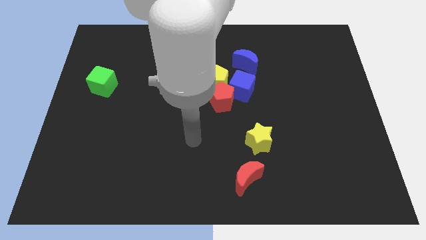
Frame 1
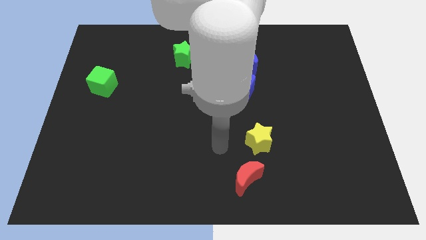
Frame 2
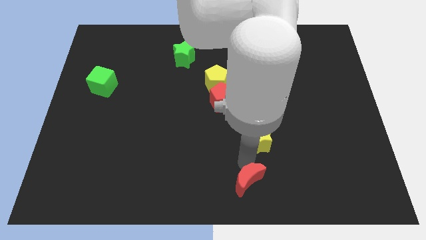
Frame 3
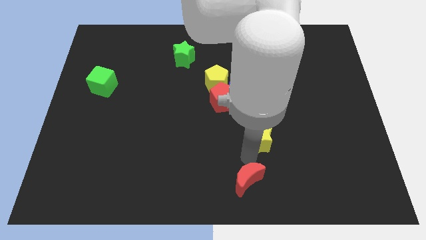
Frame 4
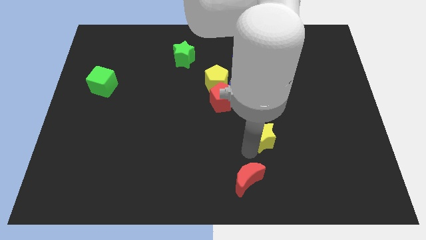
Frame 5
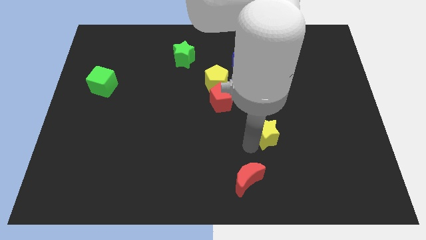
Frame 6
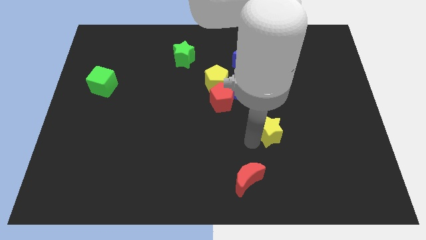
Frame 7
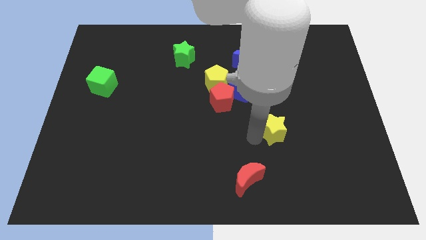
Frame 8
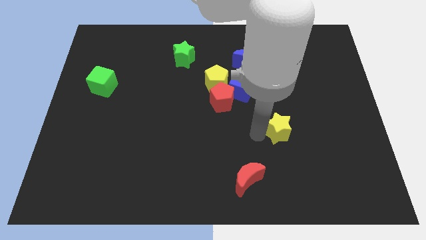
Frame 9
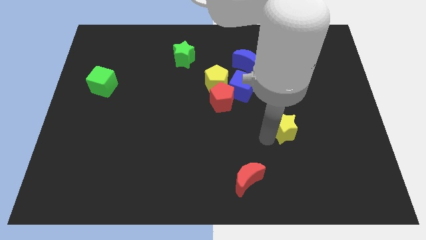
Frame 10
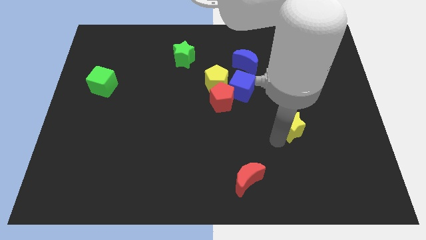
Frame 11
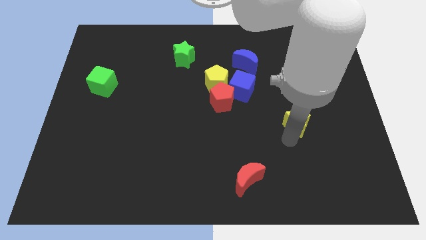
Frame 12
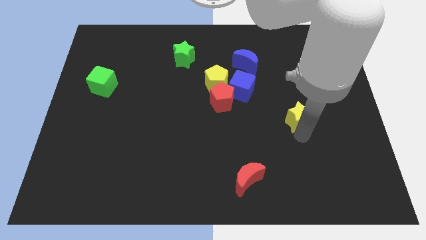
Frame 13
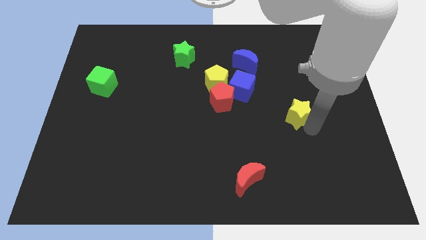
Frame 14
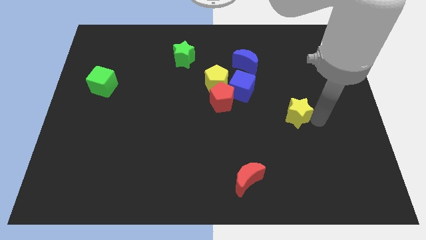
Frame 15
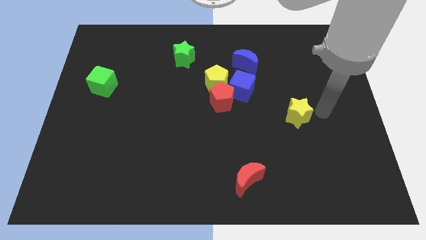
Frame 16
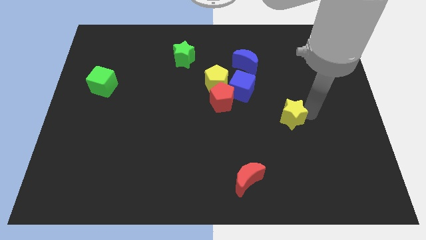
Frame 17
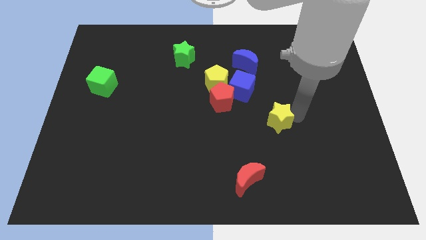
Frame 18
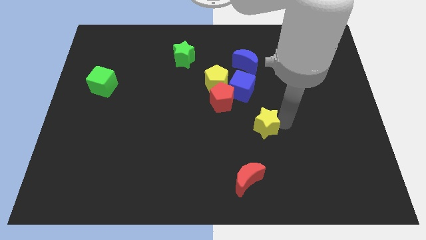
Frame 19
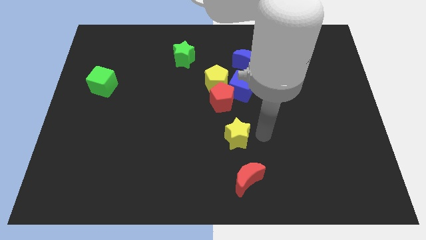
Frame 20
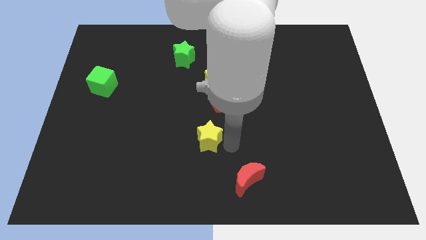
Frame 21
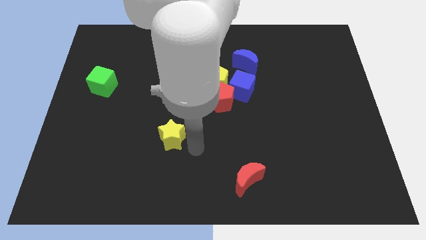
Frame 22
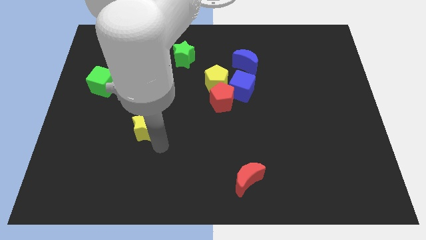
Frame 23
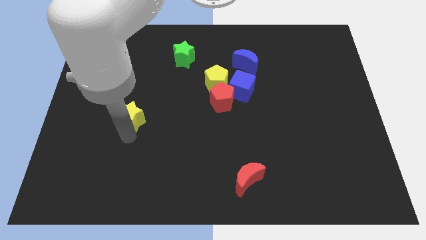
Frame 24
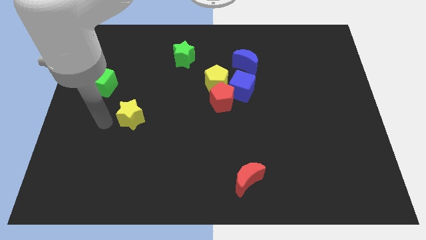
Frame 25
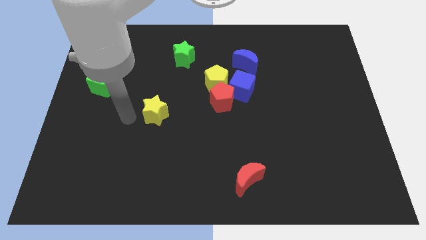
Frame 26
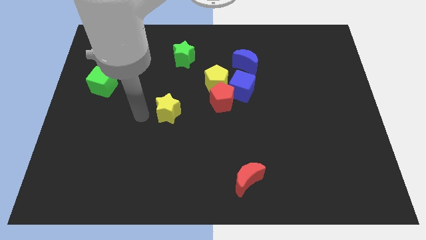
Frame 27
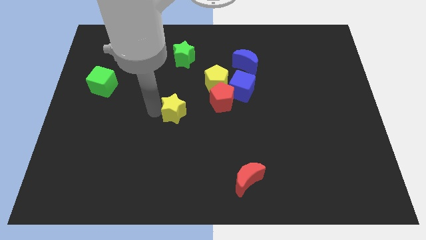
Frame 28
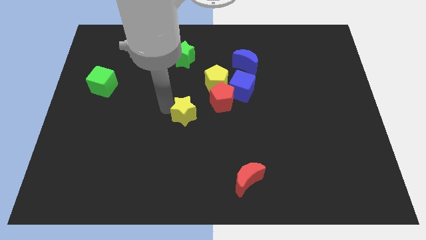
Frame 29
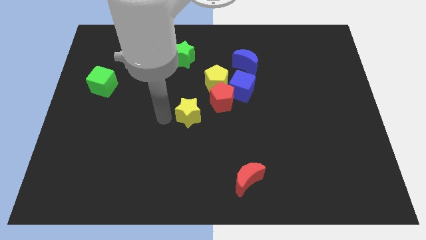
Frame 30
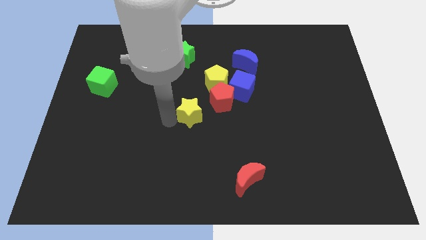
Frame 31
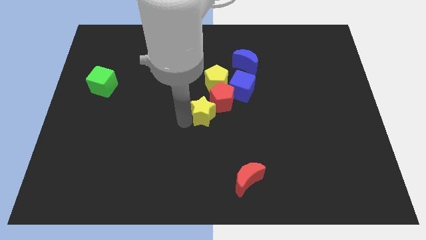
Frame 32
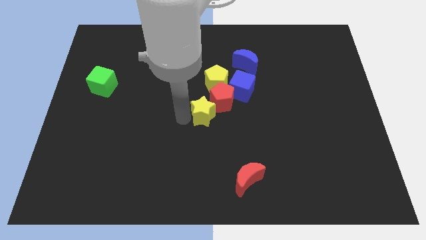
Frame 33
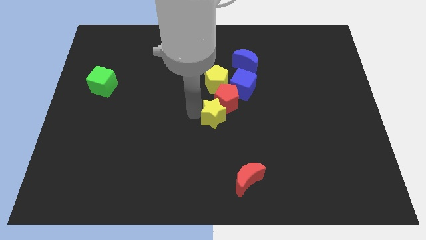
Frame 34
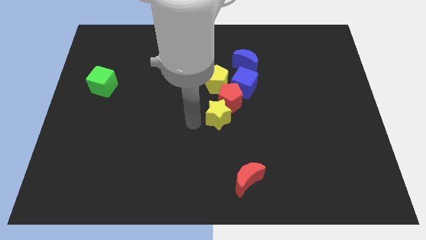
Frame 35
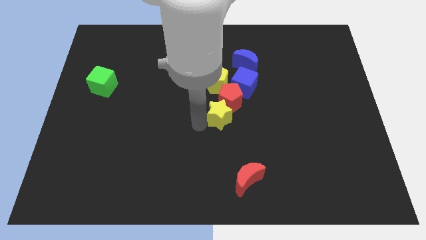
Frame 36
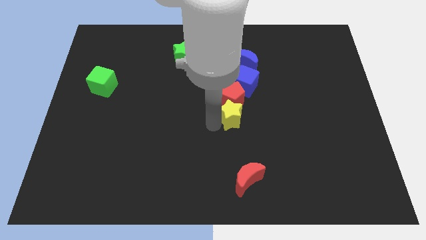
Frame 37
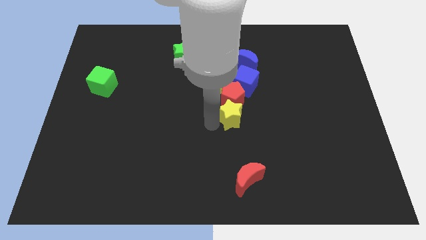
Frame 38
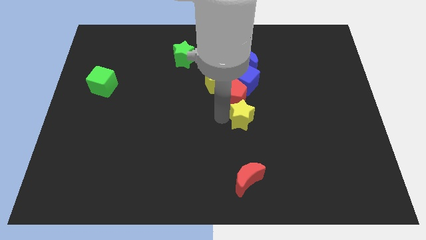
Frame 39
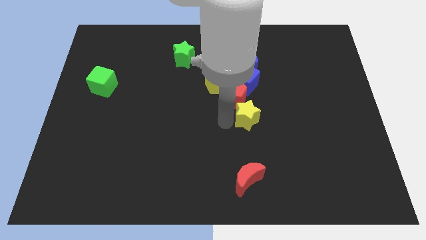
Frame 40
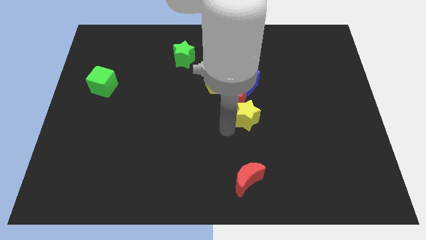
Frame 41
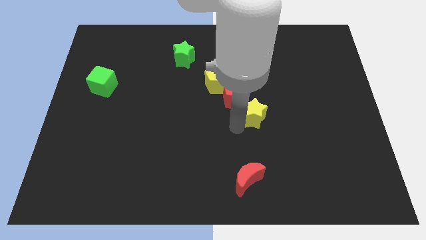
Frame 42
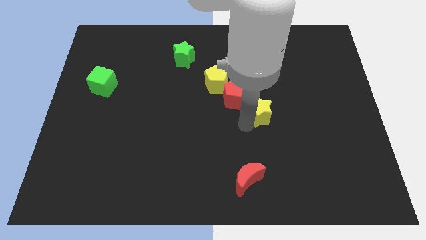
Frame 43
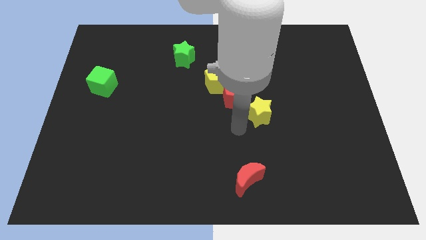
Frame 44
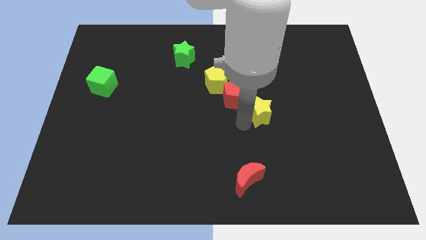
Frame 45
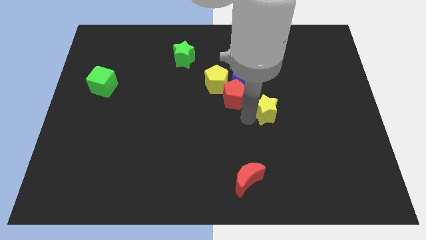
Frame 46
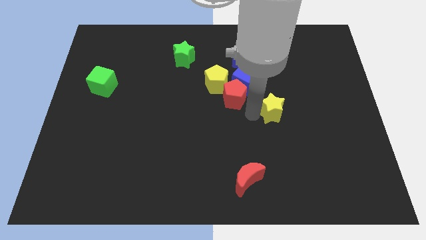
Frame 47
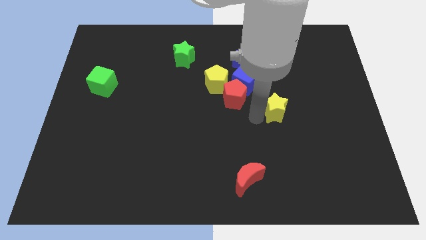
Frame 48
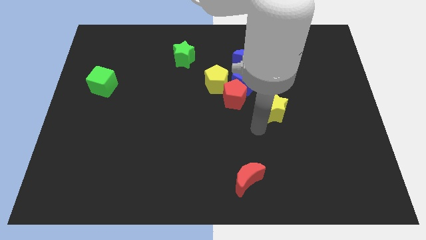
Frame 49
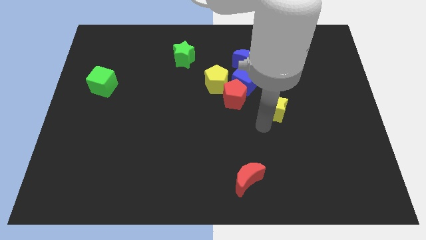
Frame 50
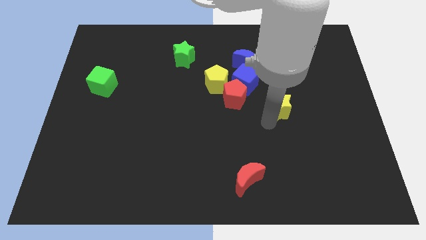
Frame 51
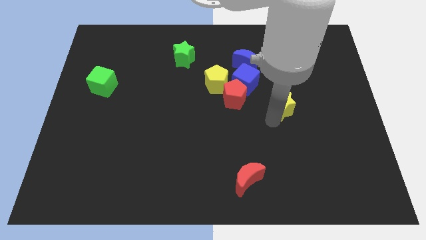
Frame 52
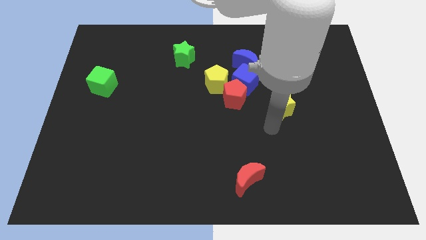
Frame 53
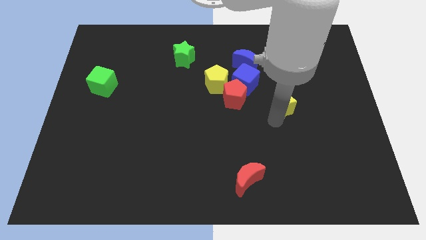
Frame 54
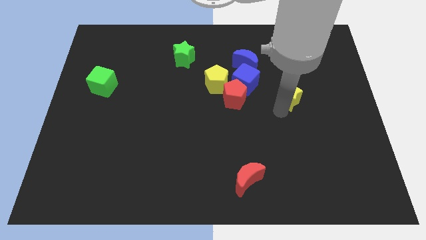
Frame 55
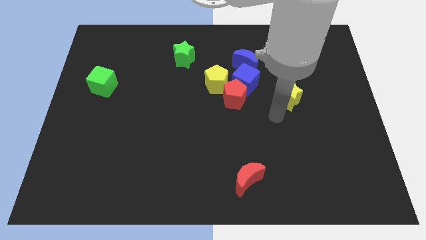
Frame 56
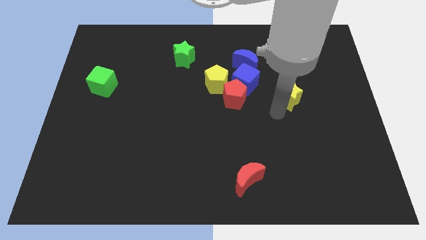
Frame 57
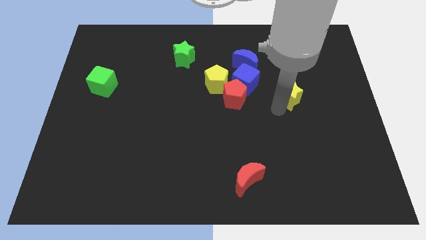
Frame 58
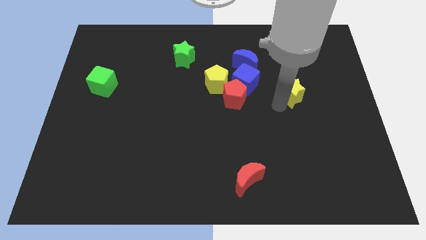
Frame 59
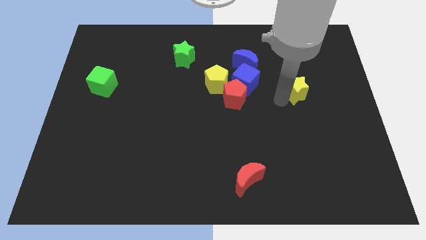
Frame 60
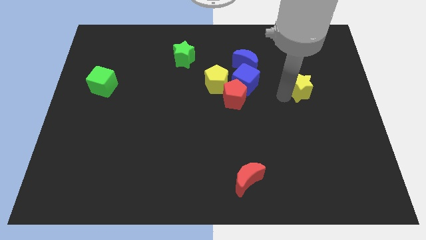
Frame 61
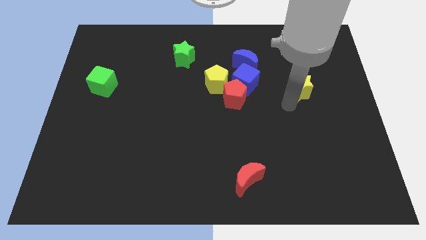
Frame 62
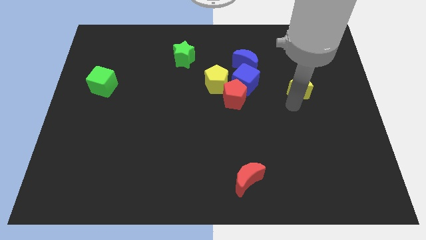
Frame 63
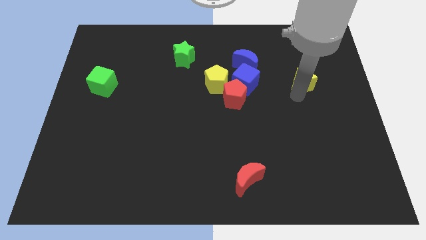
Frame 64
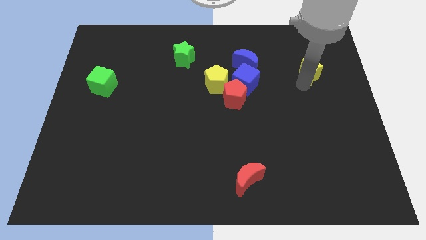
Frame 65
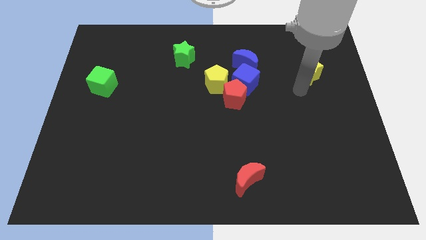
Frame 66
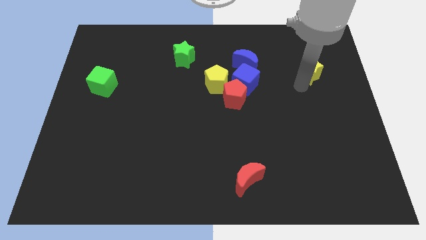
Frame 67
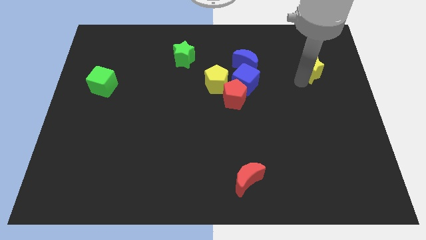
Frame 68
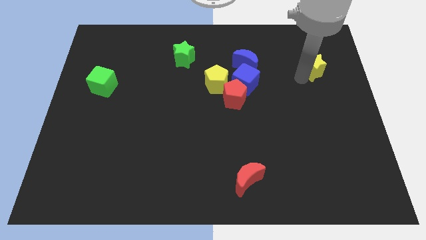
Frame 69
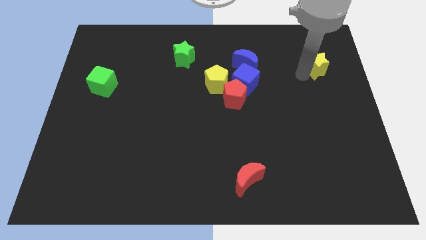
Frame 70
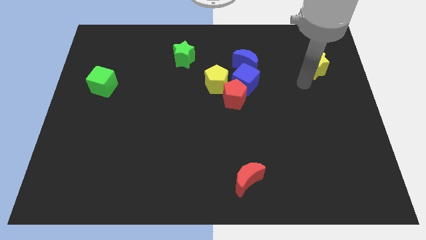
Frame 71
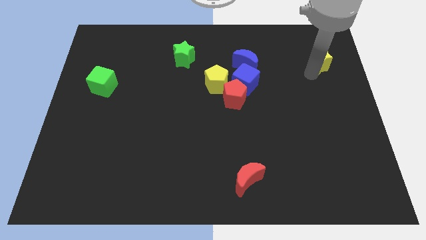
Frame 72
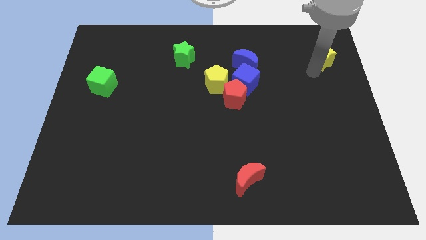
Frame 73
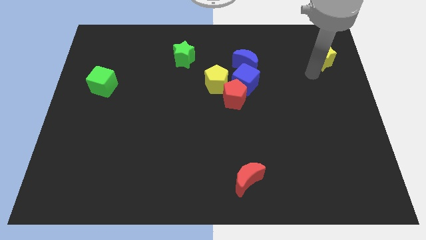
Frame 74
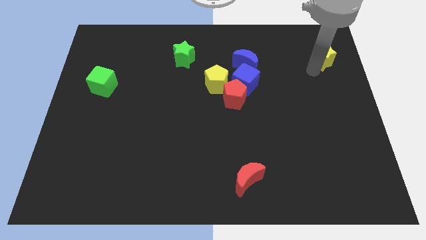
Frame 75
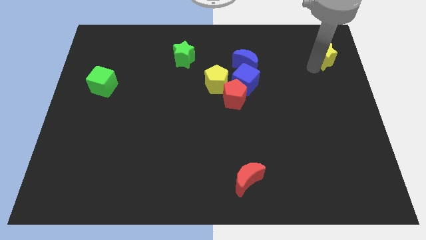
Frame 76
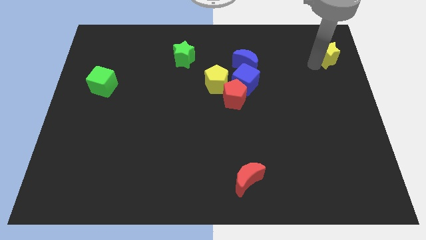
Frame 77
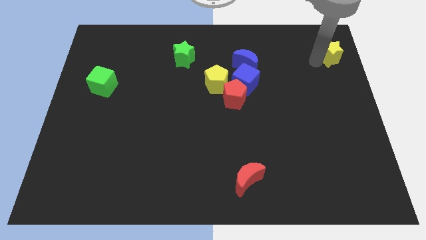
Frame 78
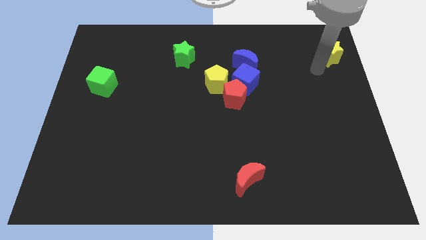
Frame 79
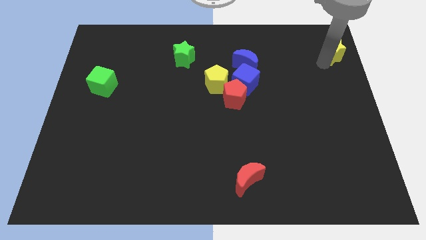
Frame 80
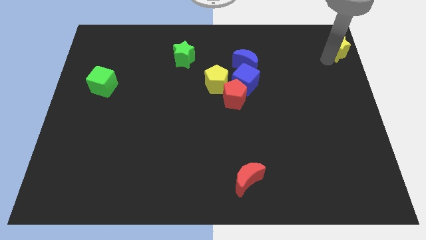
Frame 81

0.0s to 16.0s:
move the yellow star to the upper right corner
